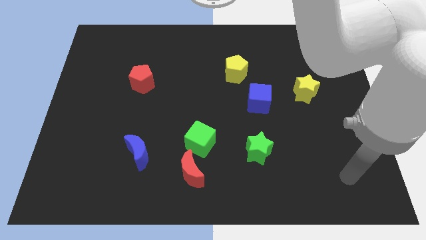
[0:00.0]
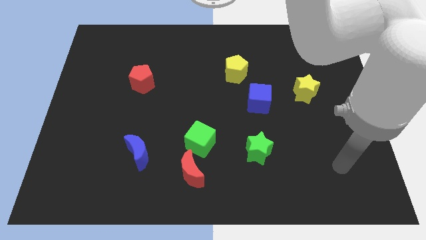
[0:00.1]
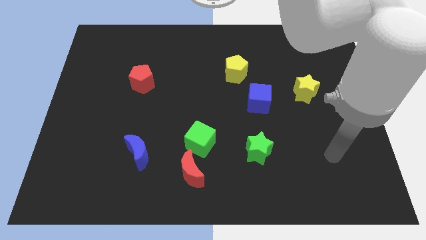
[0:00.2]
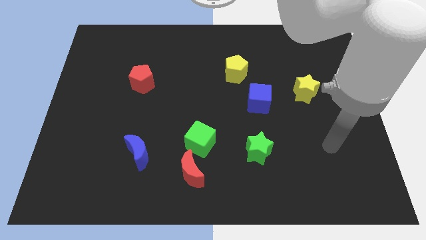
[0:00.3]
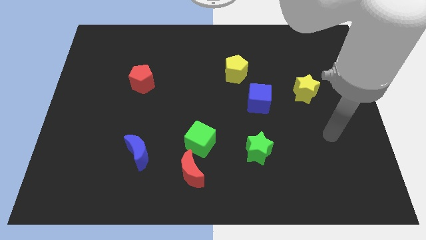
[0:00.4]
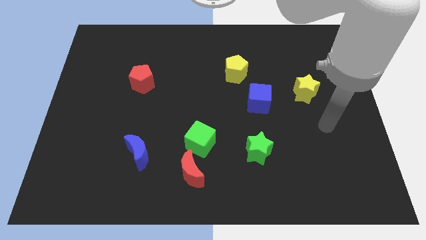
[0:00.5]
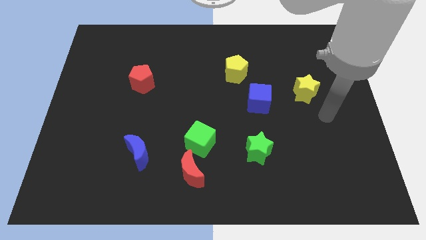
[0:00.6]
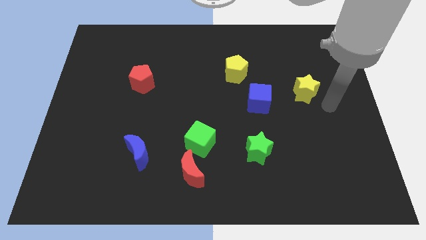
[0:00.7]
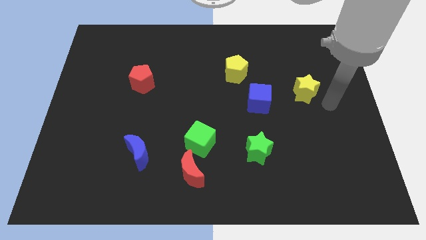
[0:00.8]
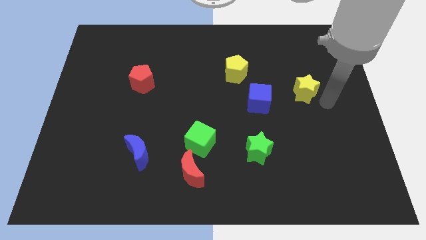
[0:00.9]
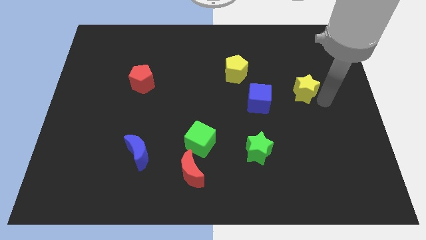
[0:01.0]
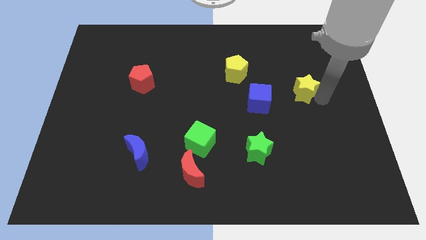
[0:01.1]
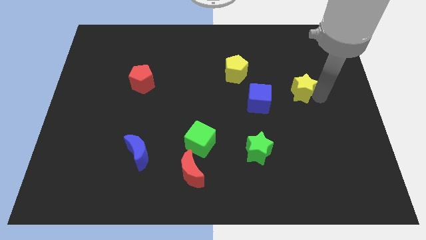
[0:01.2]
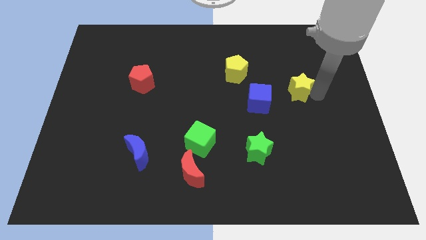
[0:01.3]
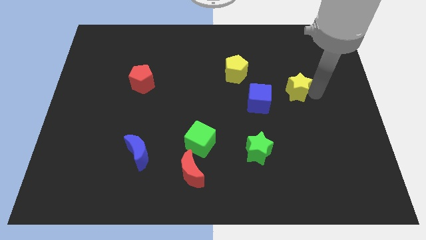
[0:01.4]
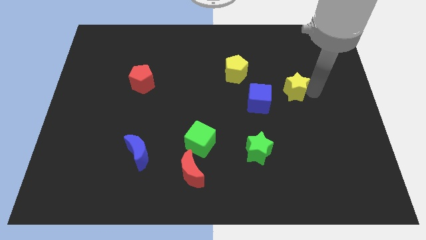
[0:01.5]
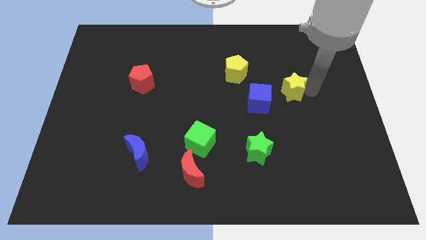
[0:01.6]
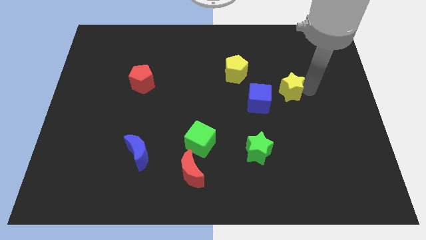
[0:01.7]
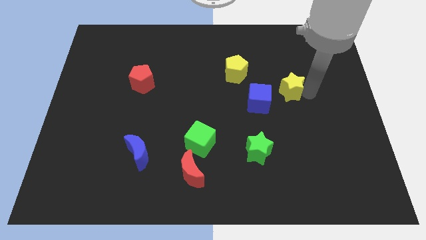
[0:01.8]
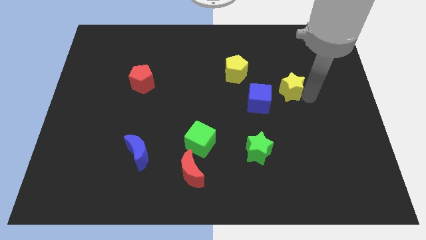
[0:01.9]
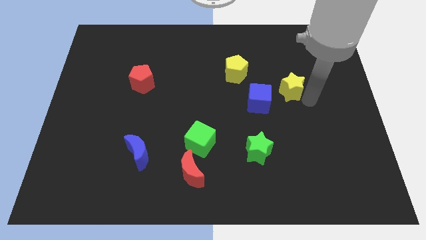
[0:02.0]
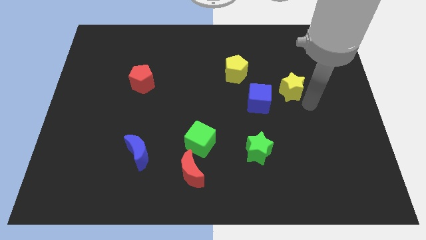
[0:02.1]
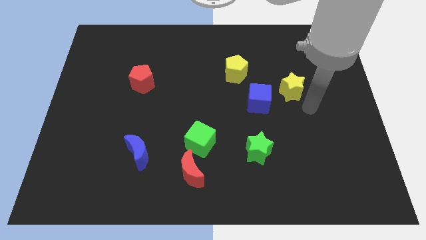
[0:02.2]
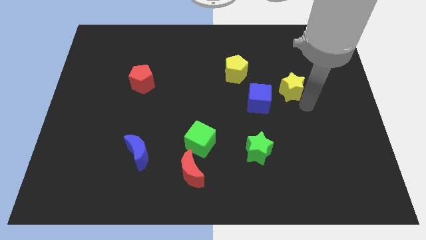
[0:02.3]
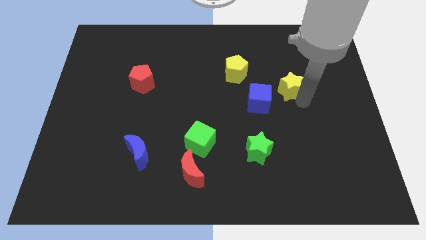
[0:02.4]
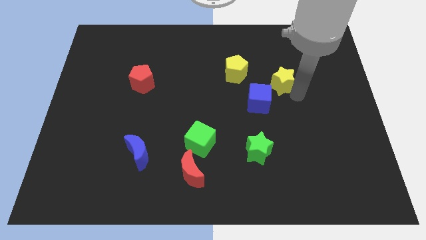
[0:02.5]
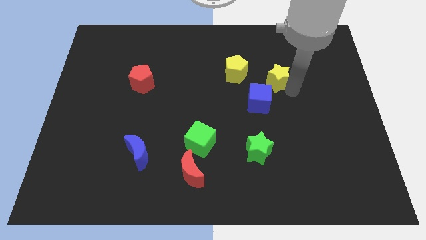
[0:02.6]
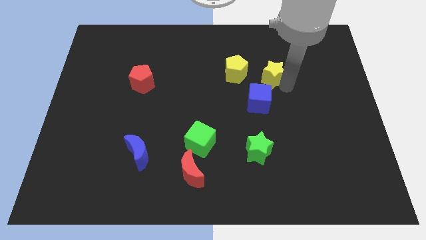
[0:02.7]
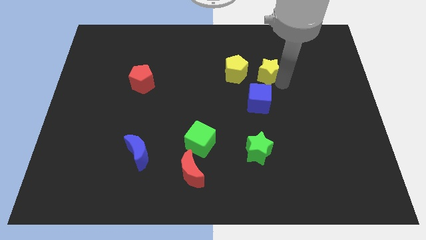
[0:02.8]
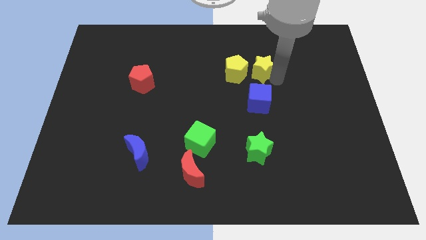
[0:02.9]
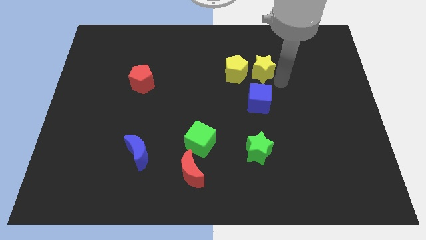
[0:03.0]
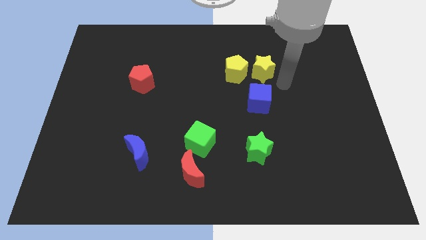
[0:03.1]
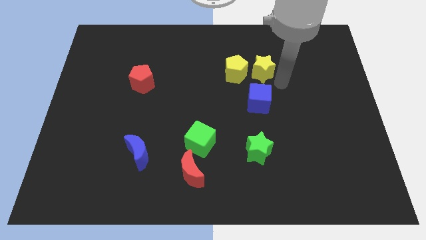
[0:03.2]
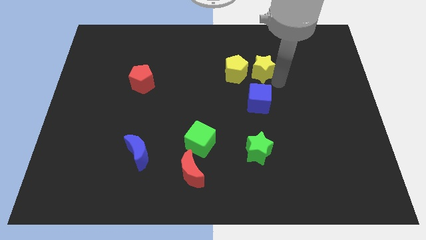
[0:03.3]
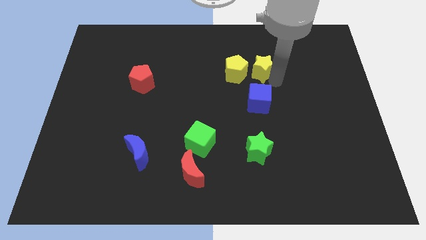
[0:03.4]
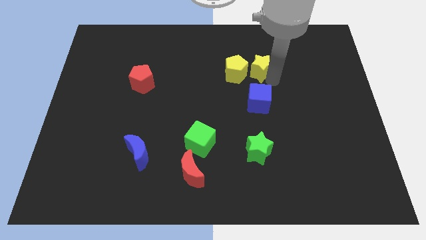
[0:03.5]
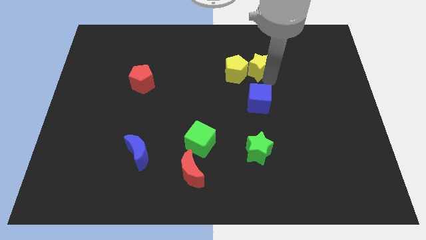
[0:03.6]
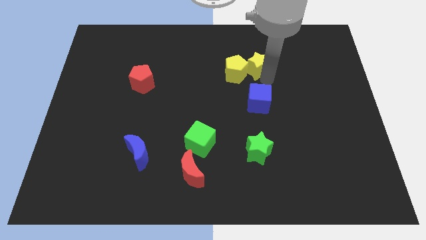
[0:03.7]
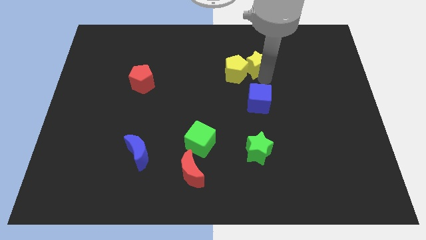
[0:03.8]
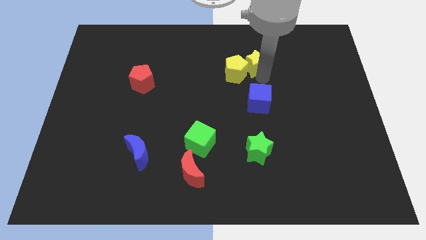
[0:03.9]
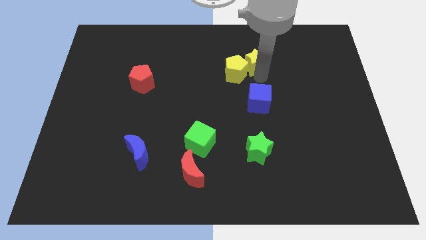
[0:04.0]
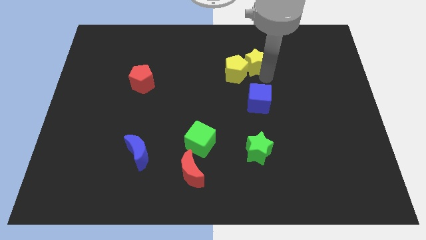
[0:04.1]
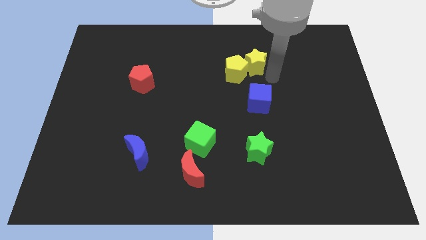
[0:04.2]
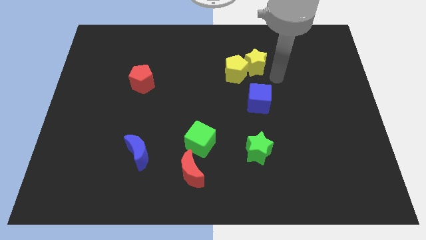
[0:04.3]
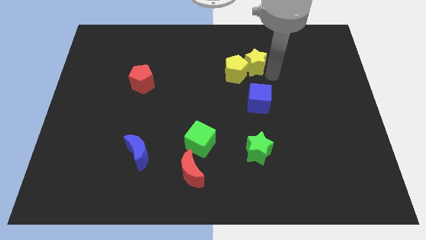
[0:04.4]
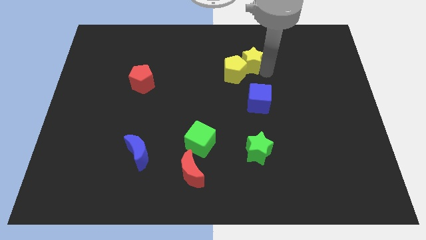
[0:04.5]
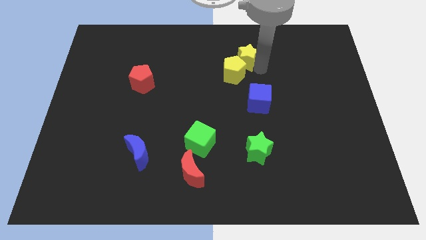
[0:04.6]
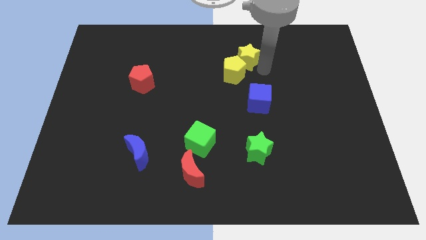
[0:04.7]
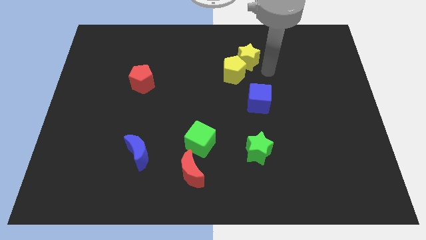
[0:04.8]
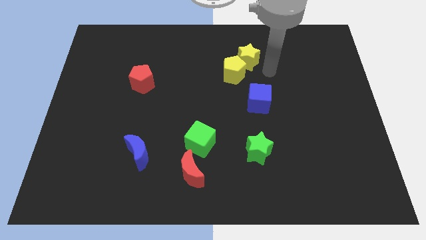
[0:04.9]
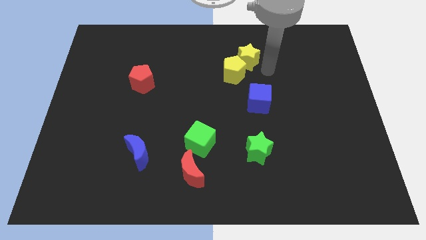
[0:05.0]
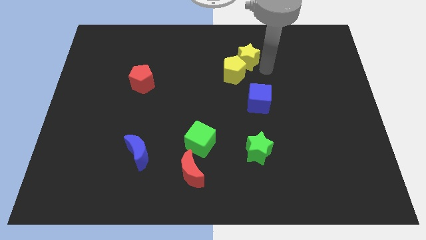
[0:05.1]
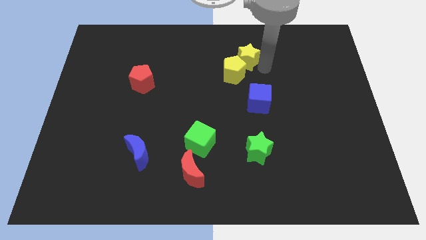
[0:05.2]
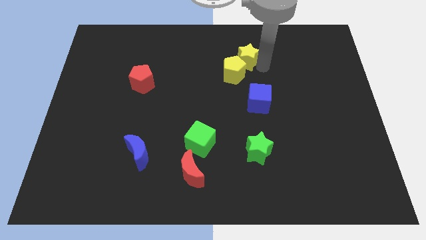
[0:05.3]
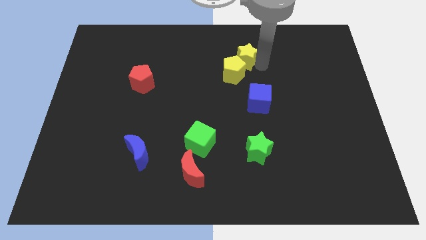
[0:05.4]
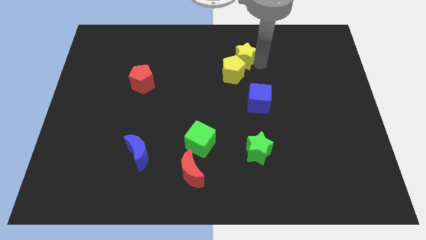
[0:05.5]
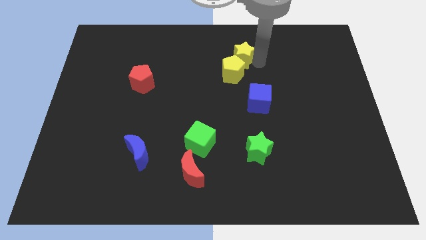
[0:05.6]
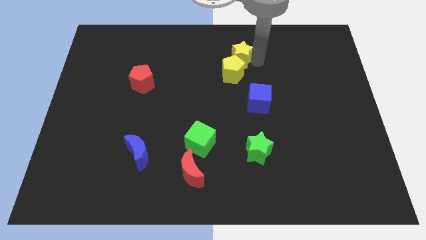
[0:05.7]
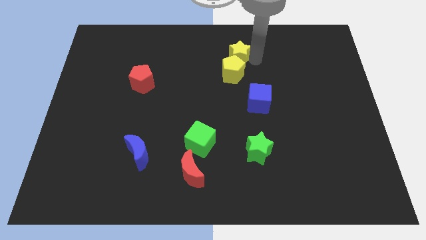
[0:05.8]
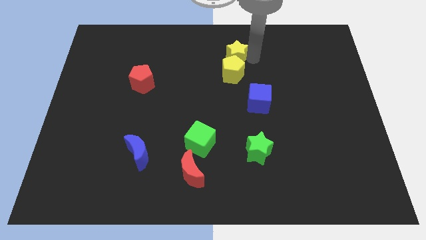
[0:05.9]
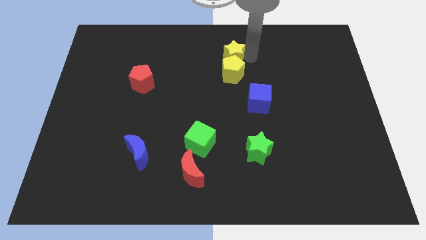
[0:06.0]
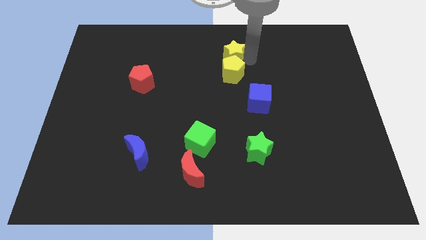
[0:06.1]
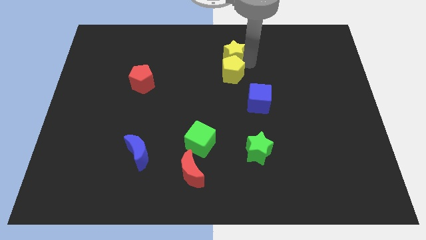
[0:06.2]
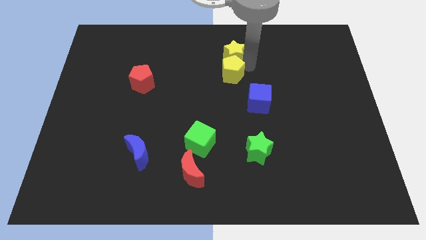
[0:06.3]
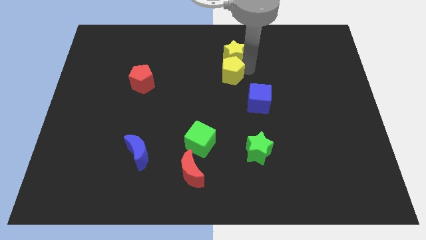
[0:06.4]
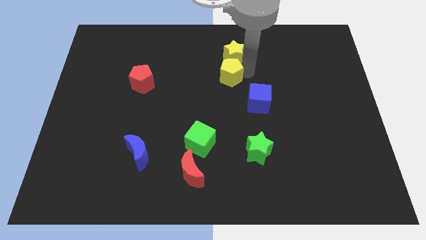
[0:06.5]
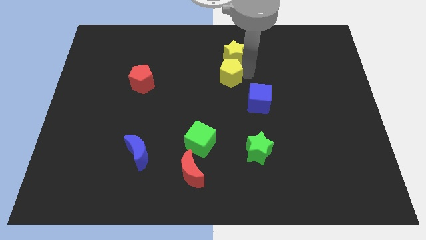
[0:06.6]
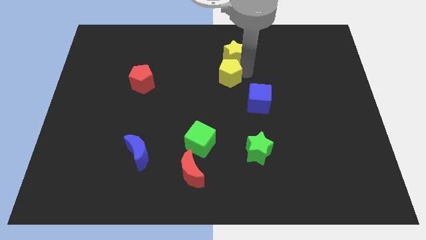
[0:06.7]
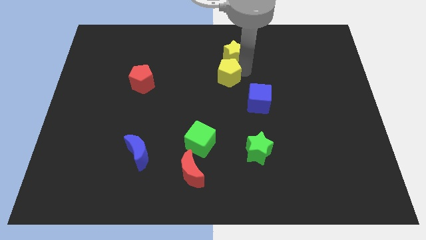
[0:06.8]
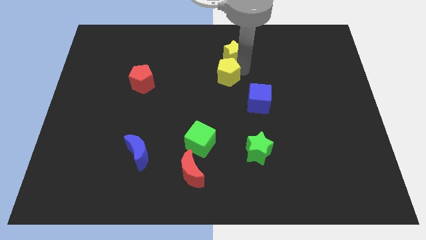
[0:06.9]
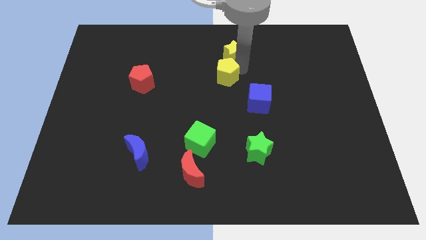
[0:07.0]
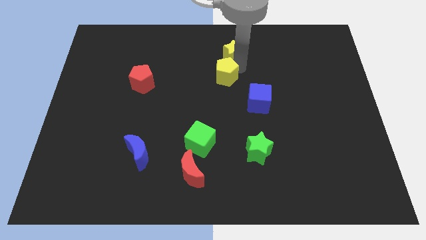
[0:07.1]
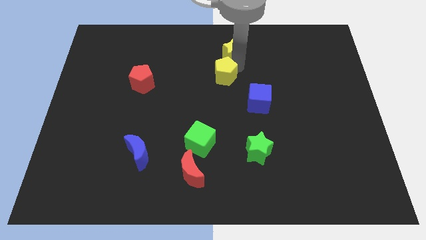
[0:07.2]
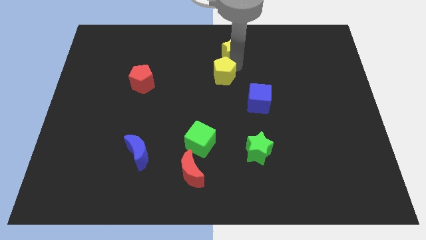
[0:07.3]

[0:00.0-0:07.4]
slide the yellow star to the top
